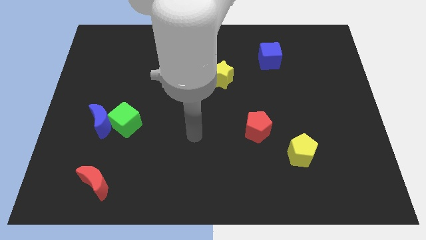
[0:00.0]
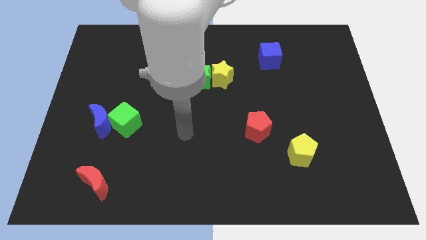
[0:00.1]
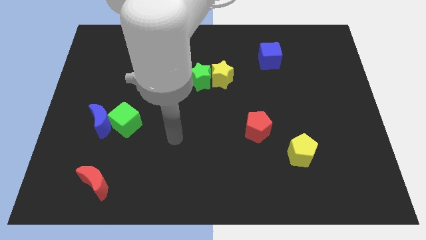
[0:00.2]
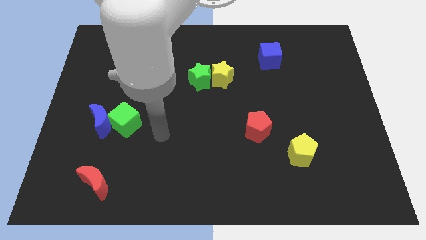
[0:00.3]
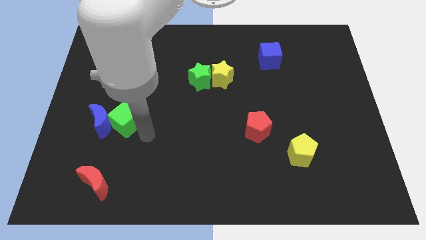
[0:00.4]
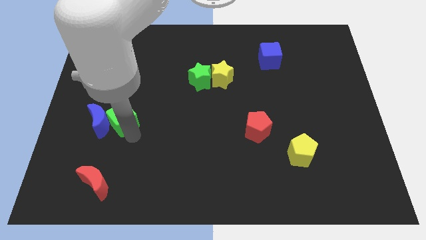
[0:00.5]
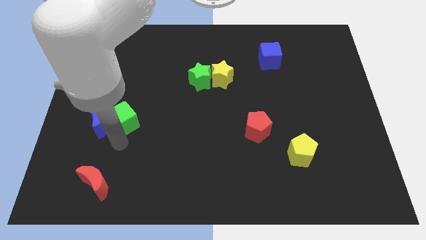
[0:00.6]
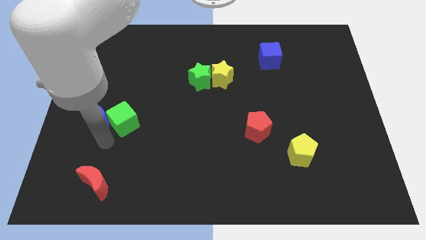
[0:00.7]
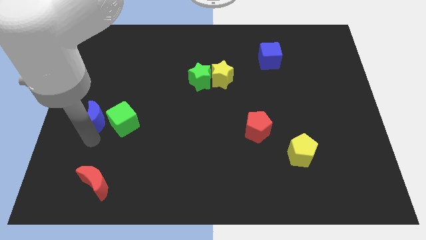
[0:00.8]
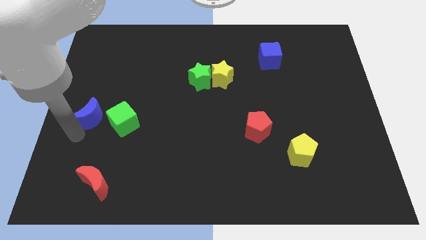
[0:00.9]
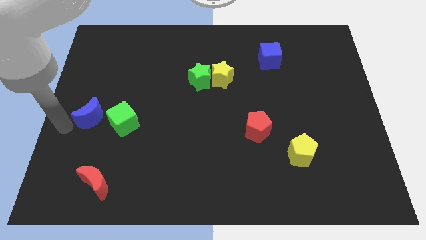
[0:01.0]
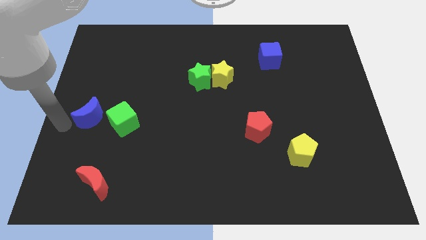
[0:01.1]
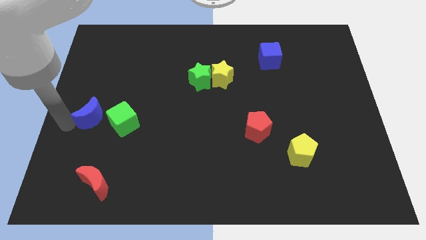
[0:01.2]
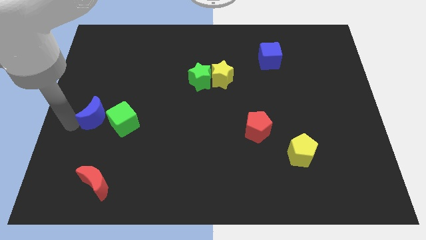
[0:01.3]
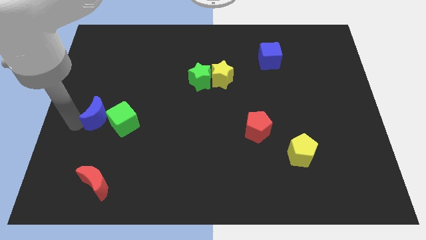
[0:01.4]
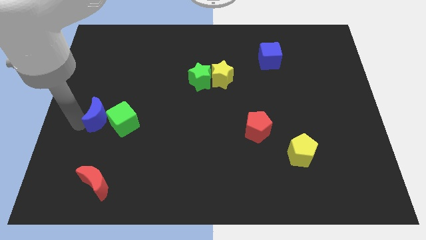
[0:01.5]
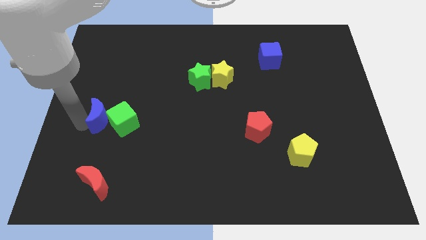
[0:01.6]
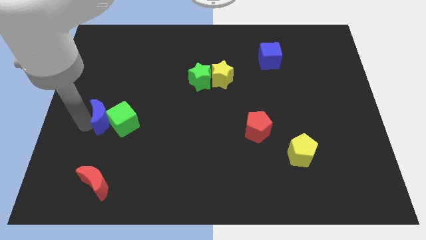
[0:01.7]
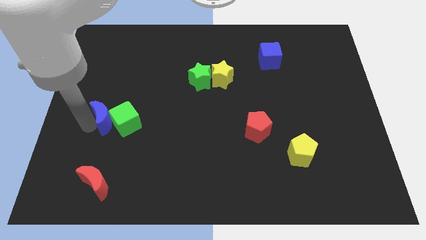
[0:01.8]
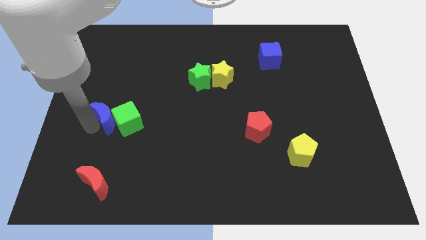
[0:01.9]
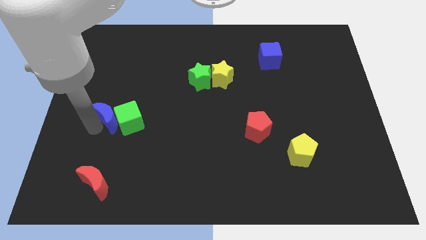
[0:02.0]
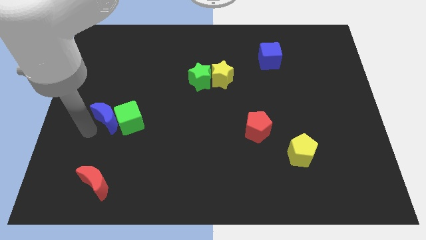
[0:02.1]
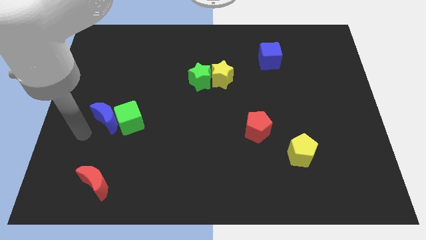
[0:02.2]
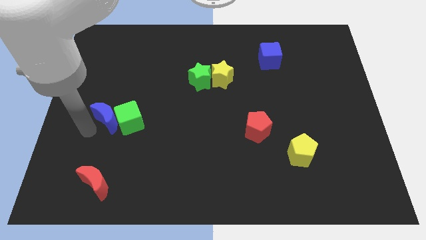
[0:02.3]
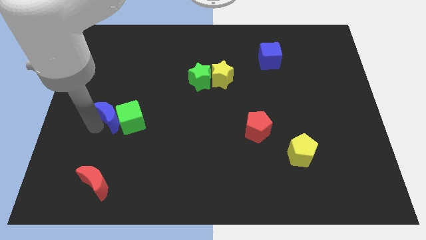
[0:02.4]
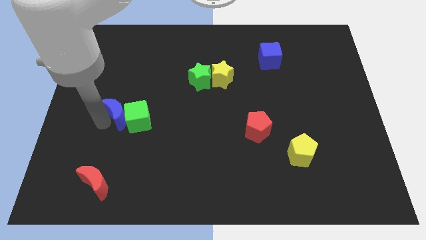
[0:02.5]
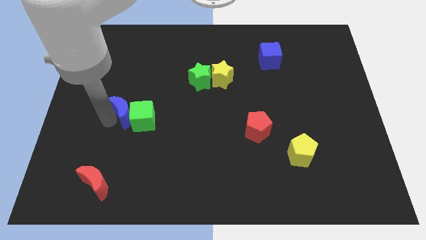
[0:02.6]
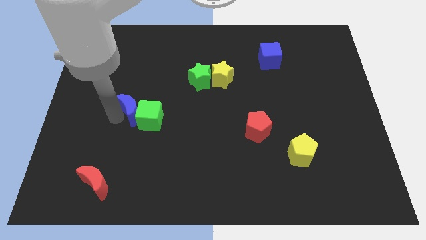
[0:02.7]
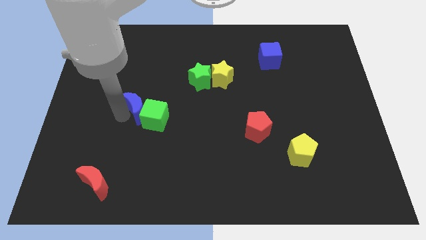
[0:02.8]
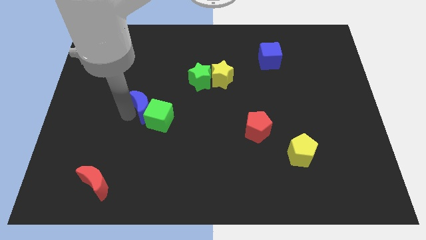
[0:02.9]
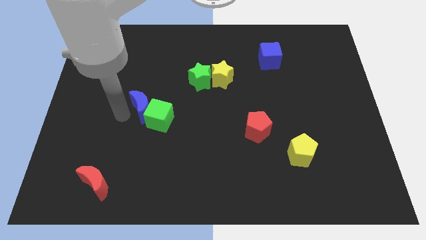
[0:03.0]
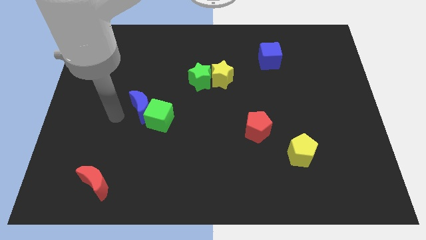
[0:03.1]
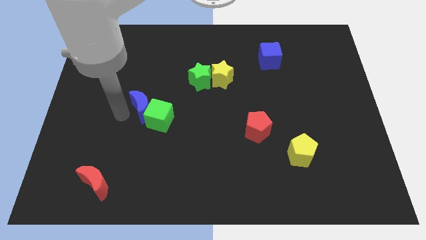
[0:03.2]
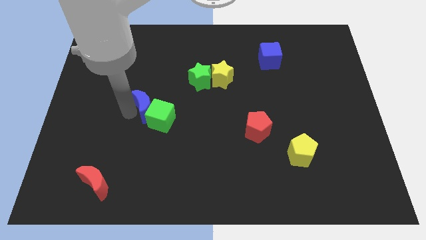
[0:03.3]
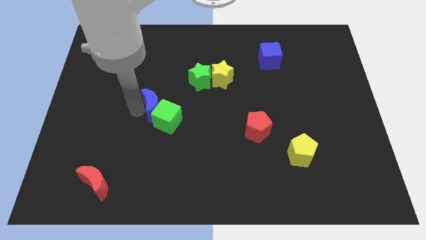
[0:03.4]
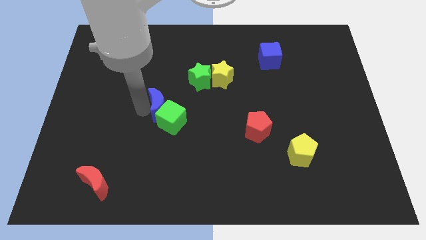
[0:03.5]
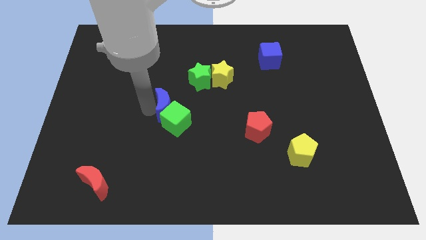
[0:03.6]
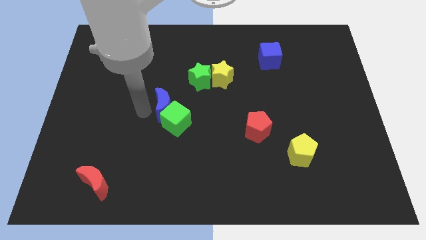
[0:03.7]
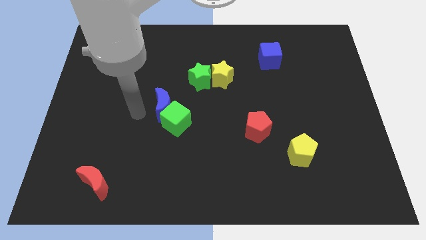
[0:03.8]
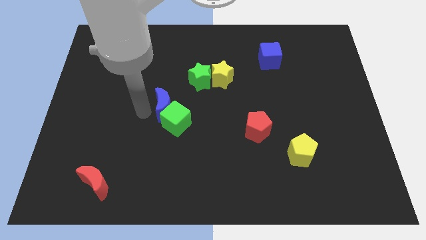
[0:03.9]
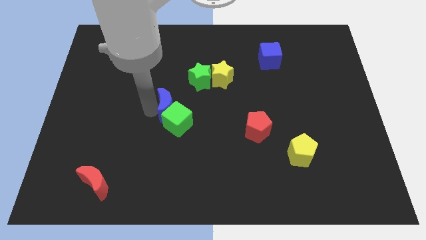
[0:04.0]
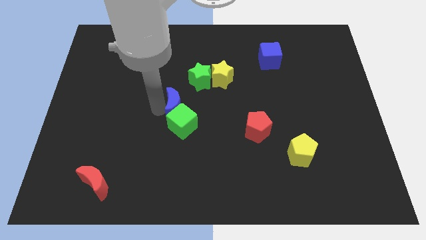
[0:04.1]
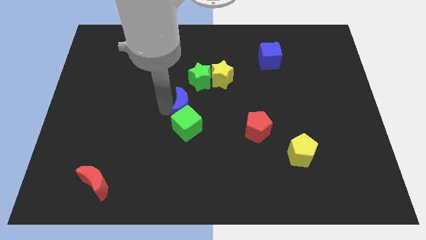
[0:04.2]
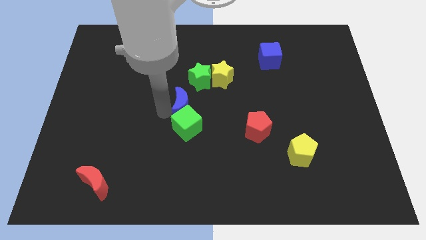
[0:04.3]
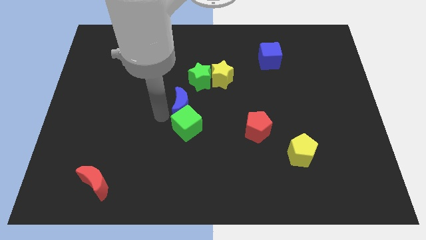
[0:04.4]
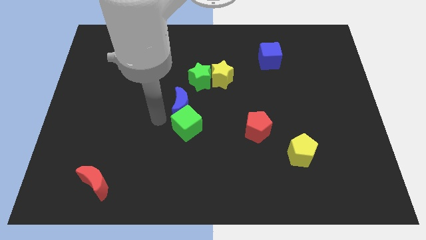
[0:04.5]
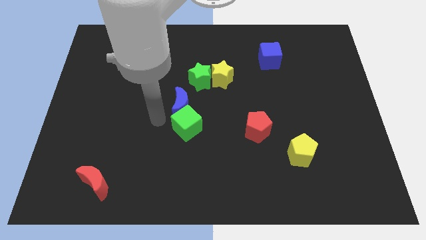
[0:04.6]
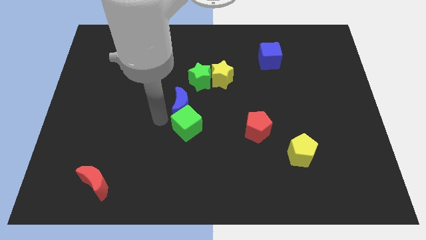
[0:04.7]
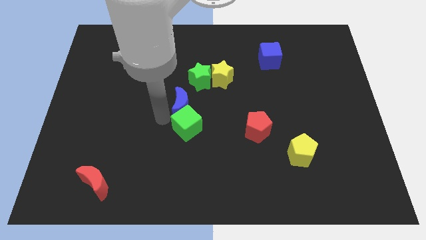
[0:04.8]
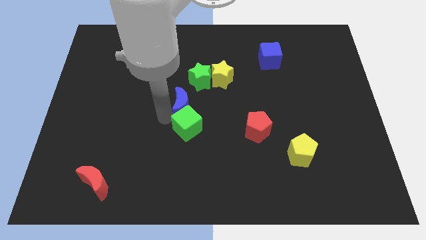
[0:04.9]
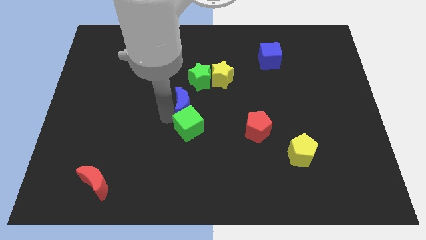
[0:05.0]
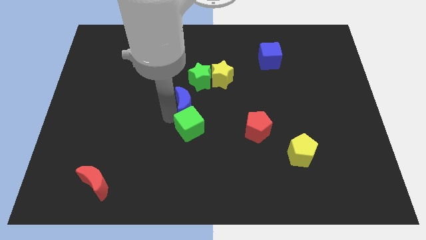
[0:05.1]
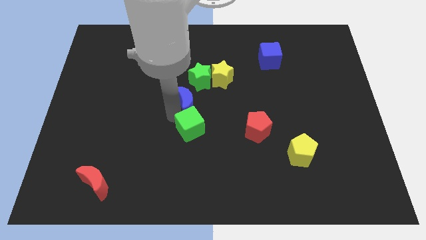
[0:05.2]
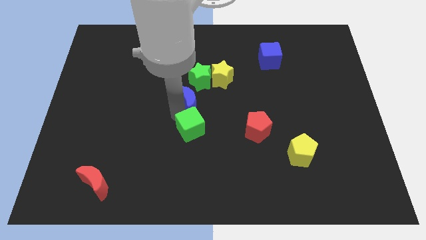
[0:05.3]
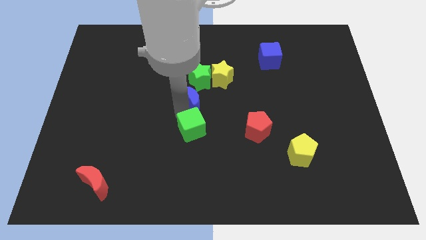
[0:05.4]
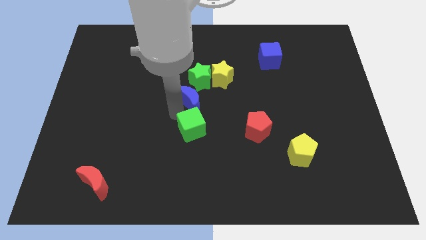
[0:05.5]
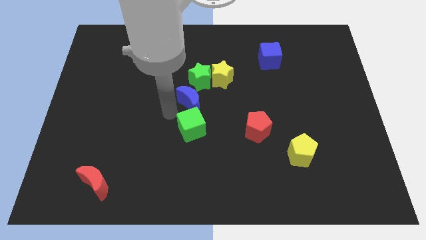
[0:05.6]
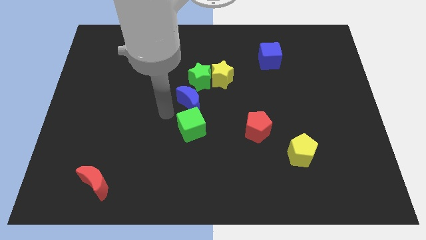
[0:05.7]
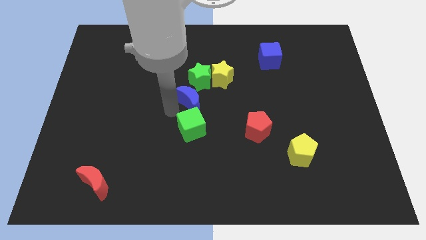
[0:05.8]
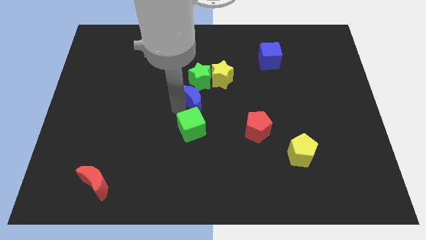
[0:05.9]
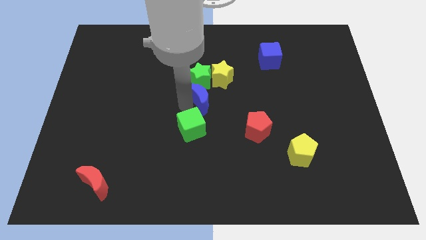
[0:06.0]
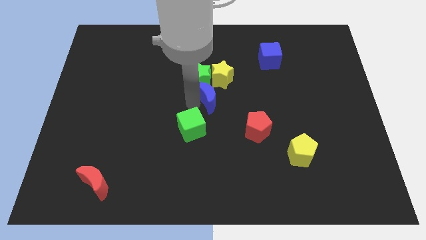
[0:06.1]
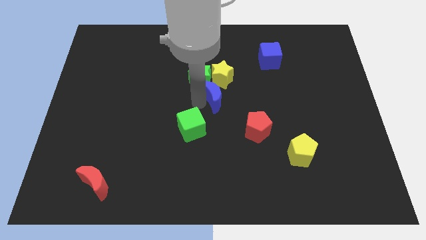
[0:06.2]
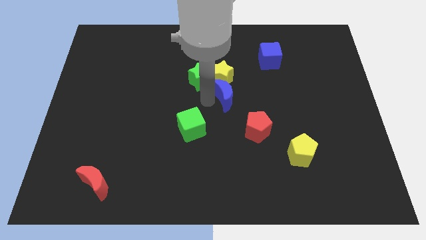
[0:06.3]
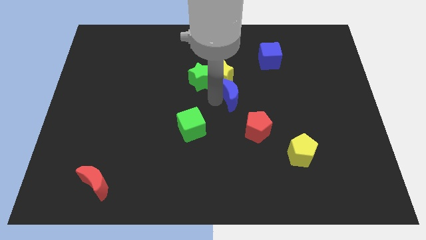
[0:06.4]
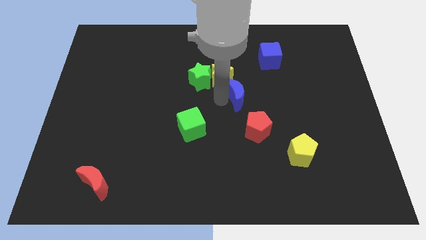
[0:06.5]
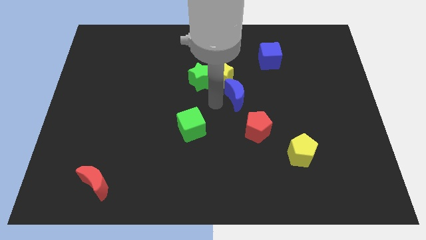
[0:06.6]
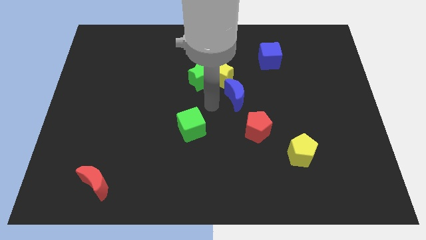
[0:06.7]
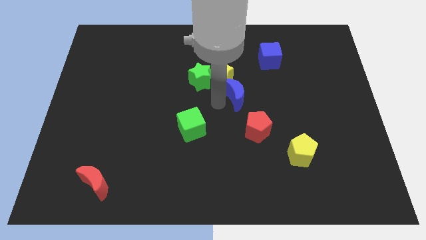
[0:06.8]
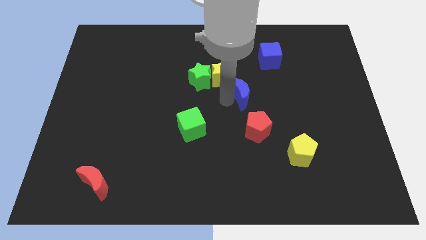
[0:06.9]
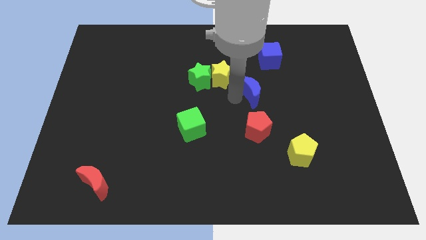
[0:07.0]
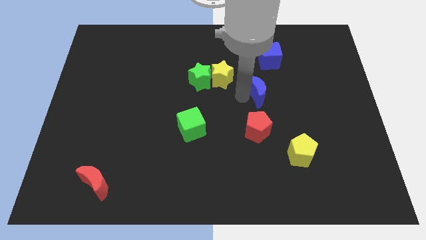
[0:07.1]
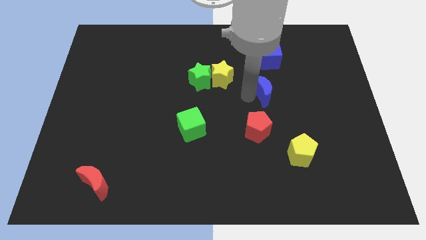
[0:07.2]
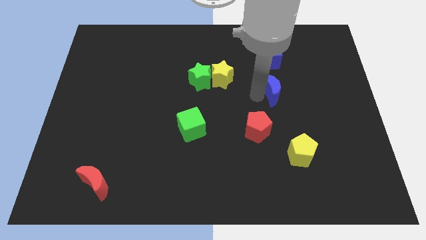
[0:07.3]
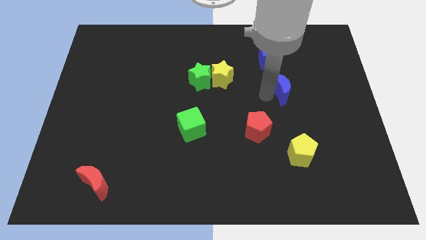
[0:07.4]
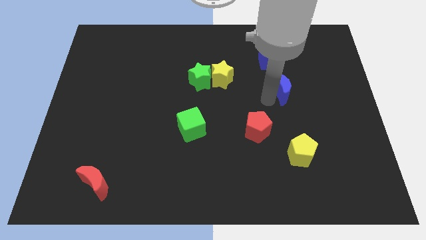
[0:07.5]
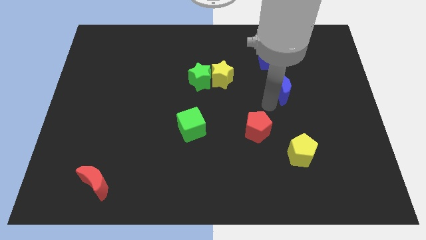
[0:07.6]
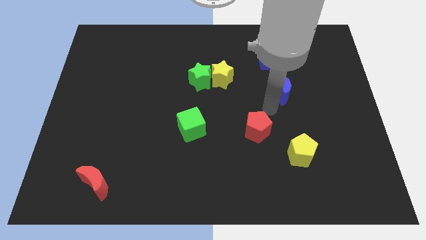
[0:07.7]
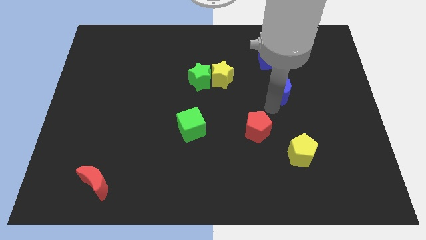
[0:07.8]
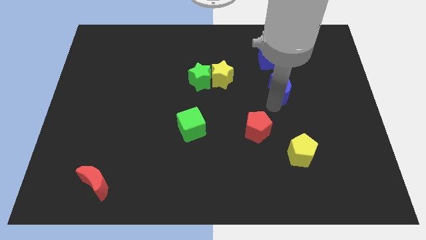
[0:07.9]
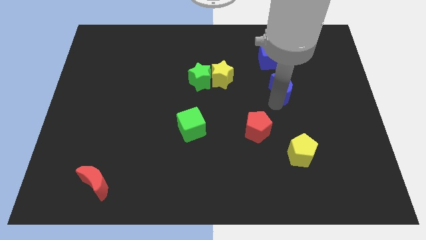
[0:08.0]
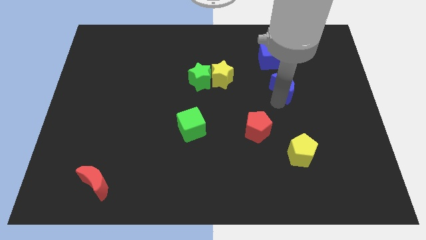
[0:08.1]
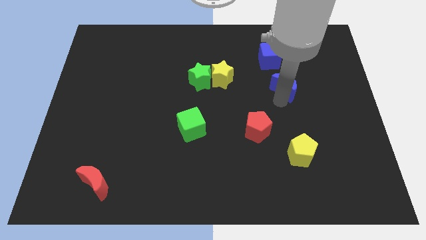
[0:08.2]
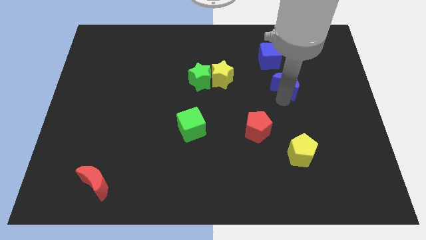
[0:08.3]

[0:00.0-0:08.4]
slide the blue moon diagonally down and to the right of the blue cube
